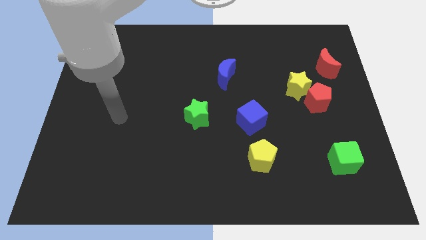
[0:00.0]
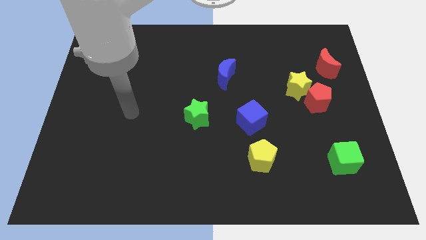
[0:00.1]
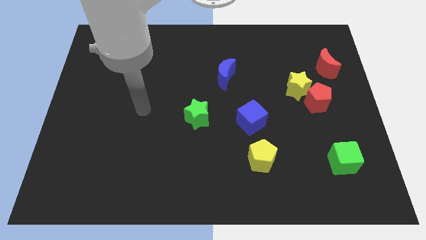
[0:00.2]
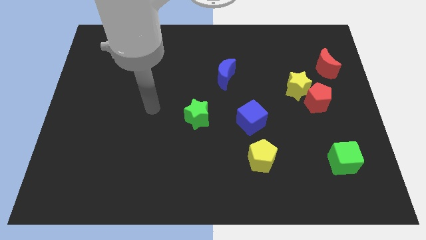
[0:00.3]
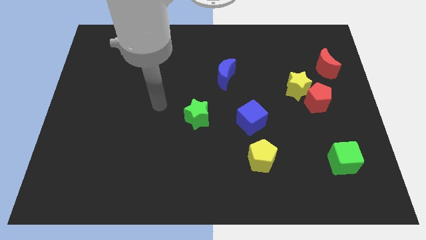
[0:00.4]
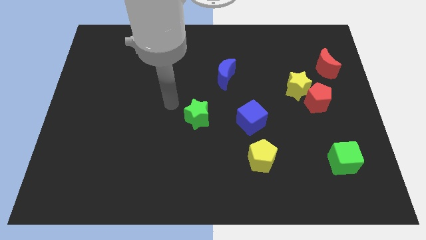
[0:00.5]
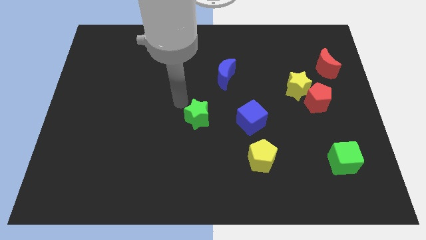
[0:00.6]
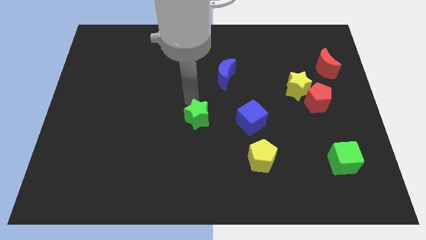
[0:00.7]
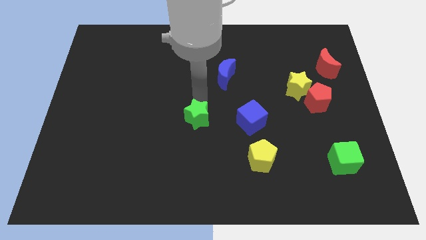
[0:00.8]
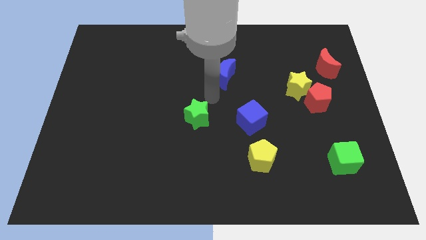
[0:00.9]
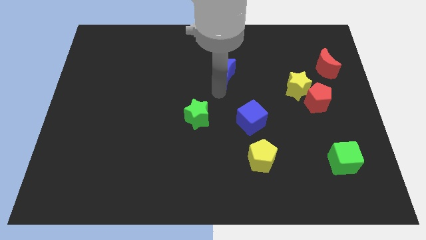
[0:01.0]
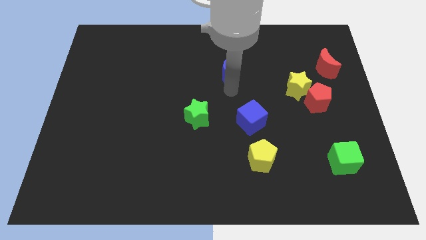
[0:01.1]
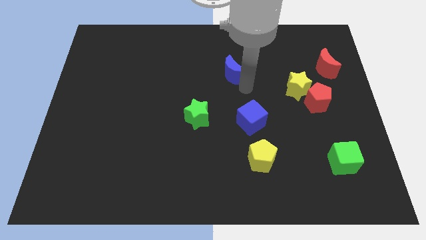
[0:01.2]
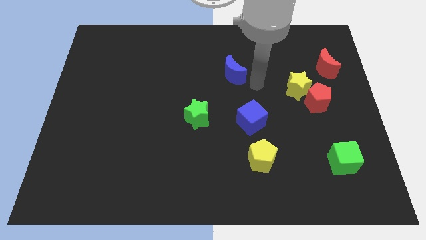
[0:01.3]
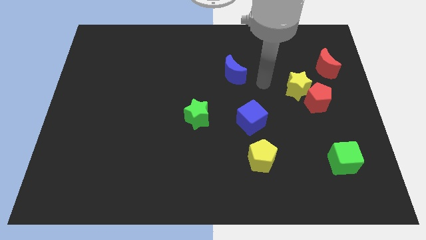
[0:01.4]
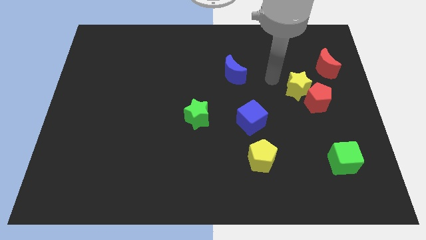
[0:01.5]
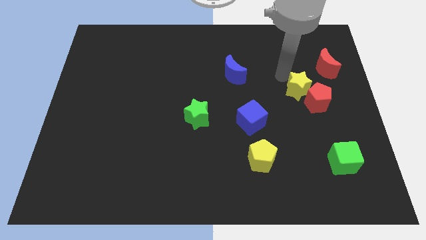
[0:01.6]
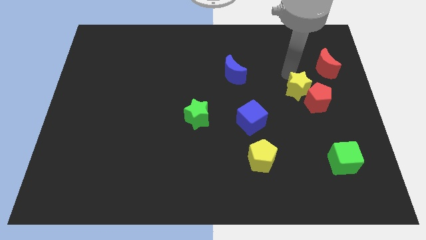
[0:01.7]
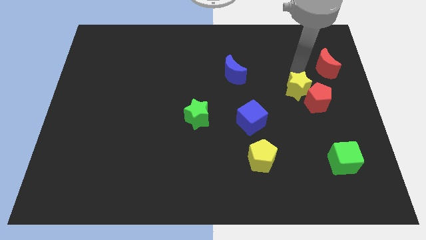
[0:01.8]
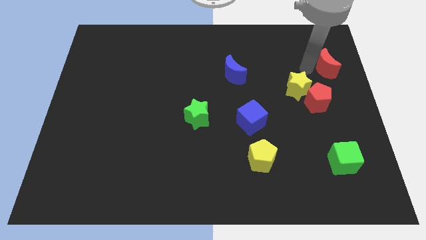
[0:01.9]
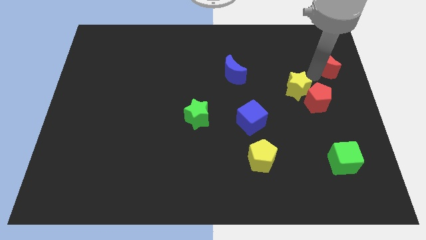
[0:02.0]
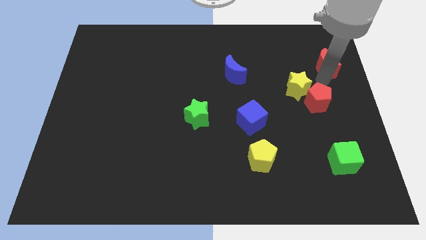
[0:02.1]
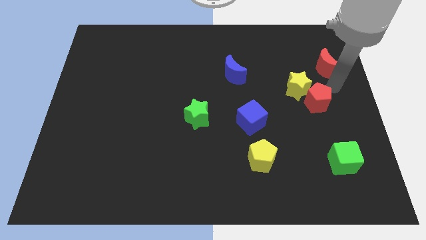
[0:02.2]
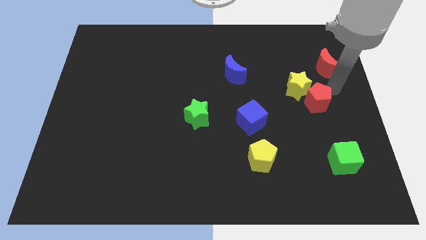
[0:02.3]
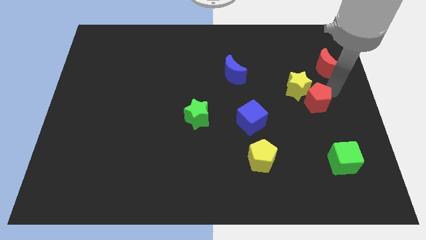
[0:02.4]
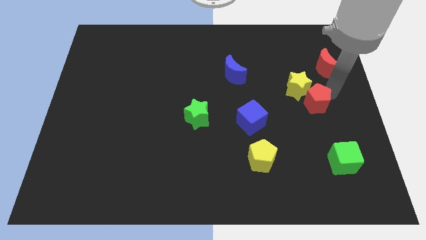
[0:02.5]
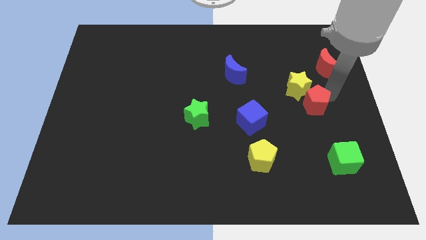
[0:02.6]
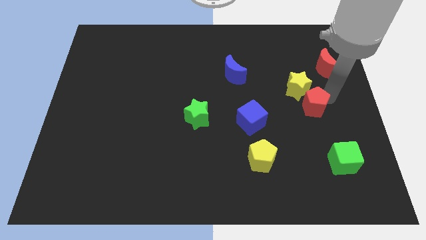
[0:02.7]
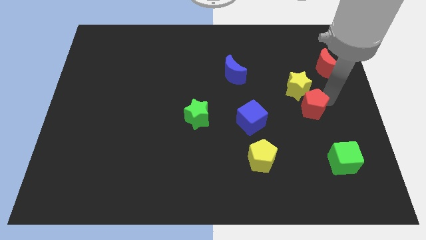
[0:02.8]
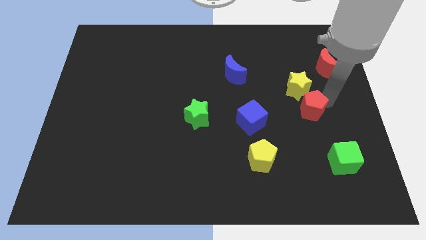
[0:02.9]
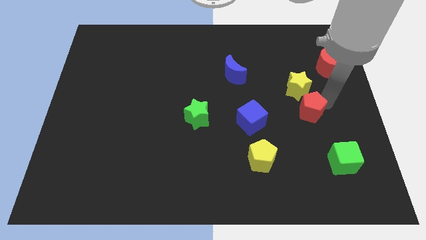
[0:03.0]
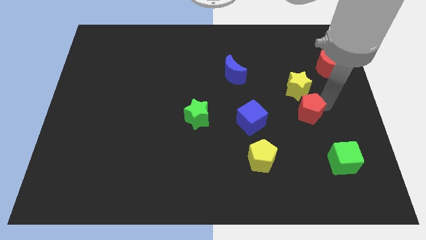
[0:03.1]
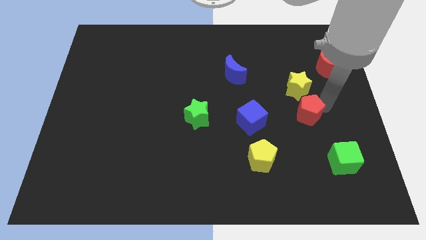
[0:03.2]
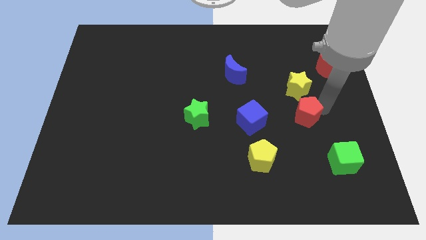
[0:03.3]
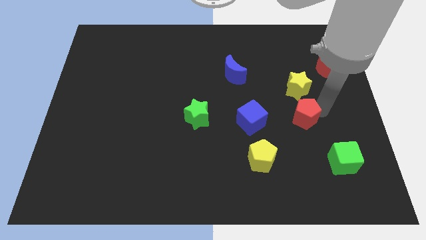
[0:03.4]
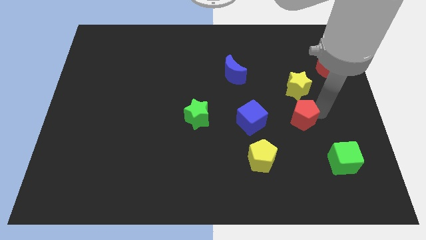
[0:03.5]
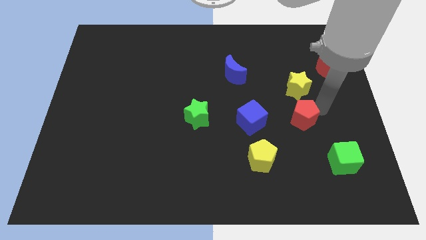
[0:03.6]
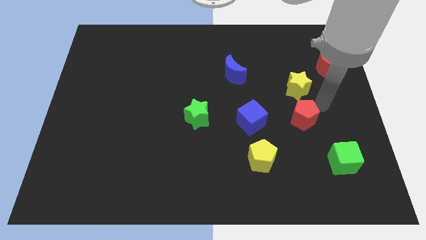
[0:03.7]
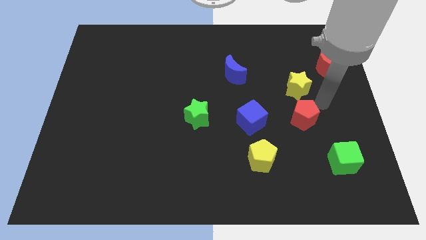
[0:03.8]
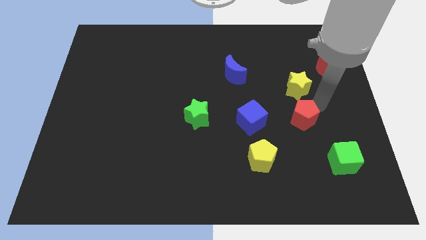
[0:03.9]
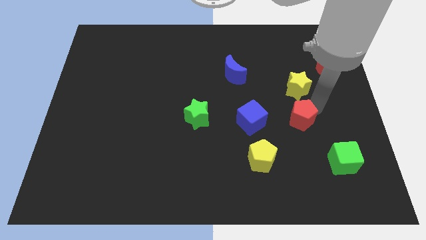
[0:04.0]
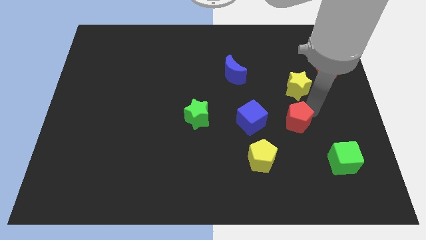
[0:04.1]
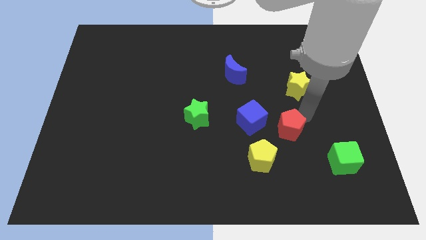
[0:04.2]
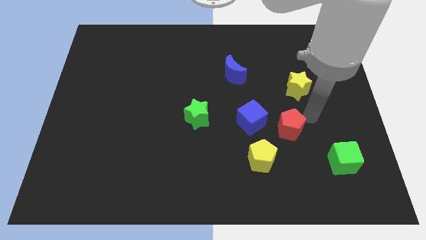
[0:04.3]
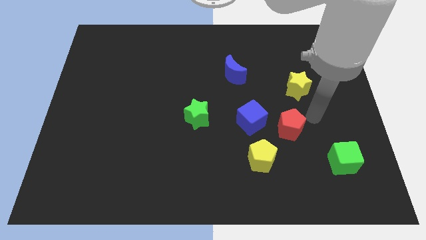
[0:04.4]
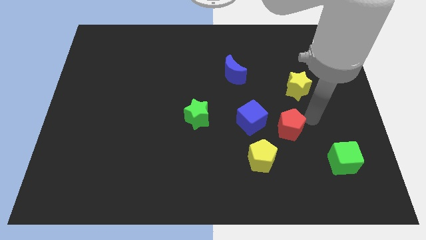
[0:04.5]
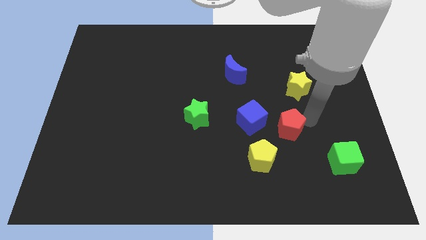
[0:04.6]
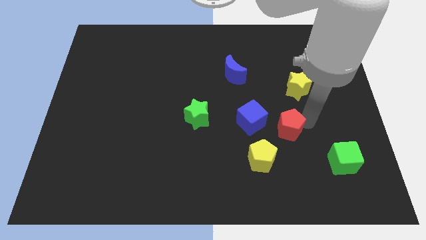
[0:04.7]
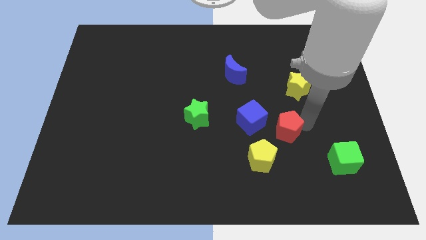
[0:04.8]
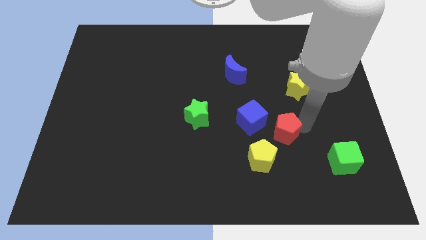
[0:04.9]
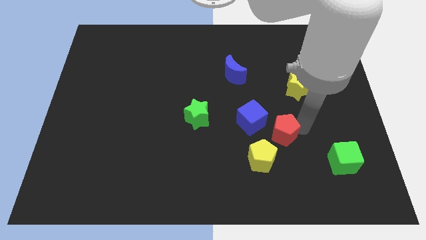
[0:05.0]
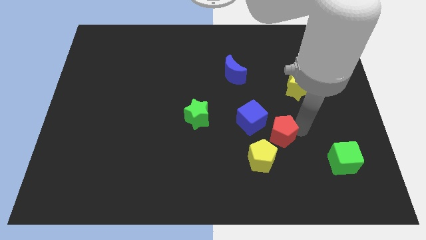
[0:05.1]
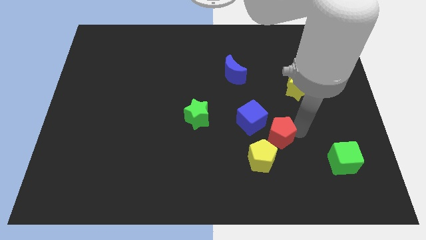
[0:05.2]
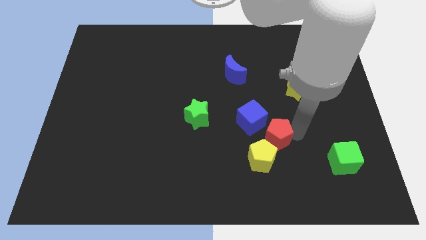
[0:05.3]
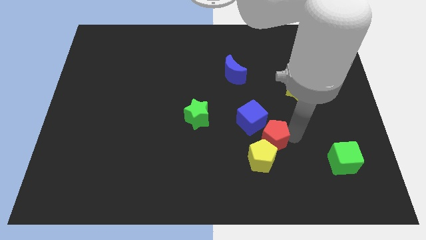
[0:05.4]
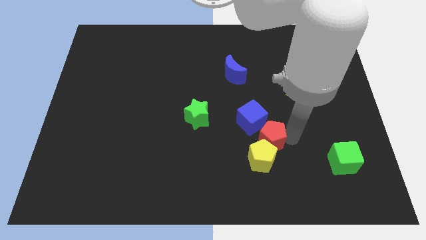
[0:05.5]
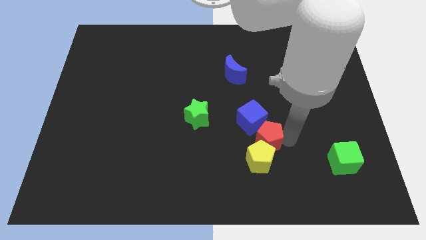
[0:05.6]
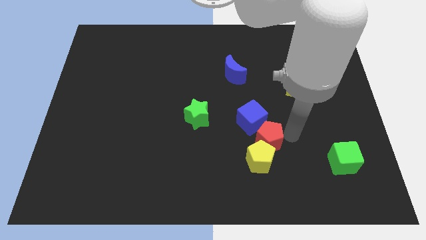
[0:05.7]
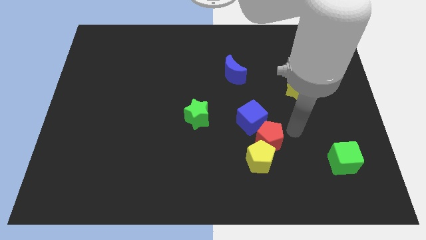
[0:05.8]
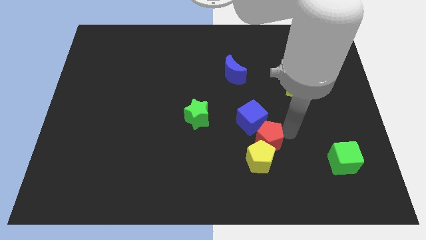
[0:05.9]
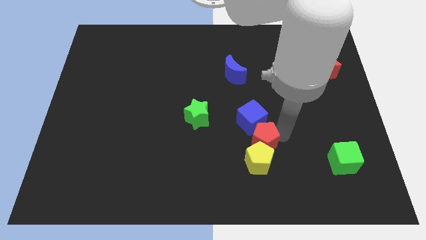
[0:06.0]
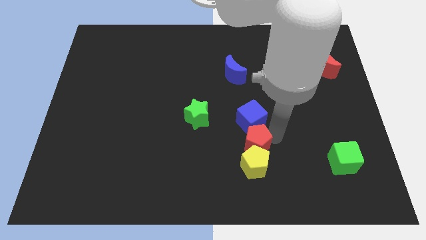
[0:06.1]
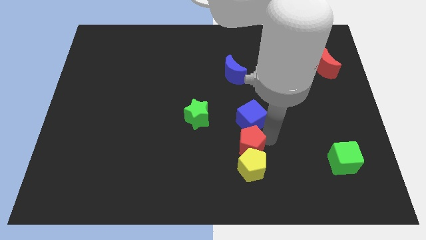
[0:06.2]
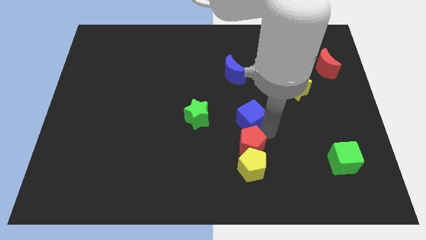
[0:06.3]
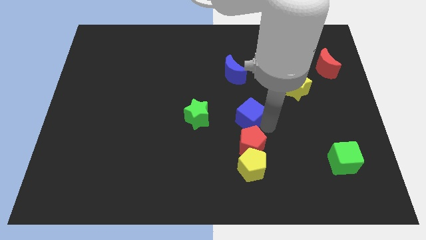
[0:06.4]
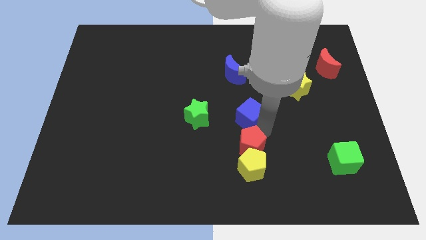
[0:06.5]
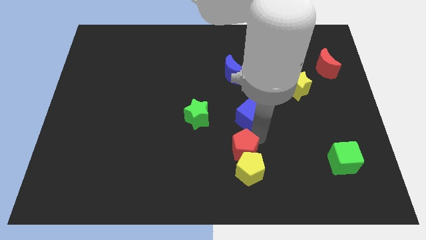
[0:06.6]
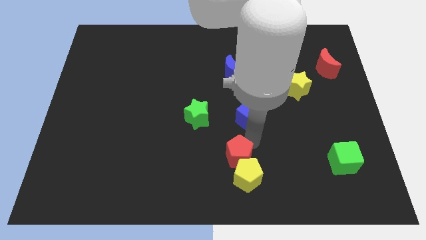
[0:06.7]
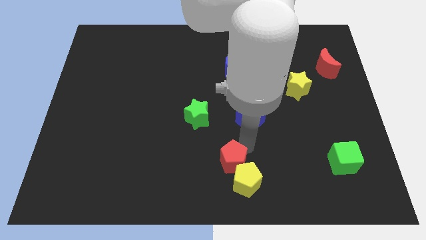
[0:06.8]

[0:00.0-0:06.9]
push the red pentagon to the bottom side

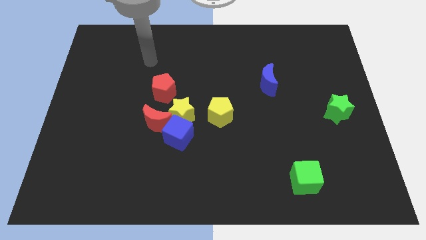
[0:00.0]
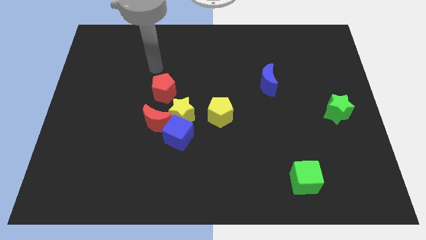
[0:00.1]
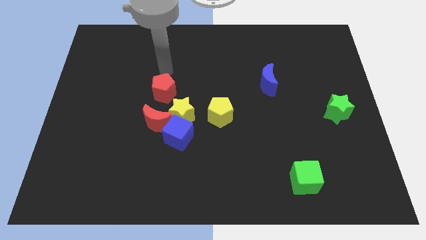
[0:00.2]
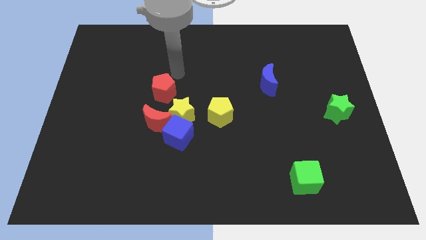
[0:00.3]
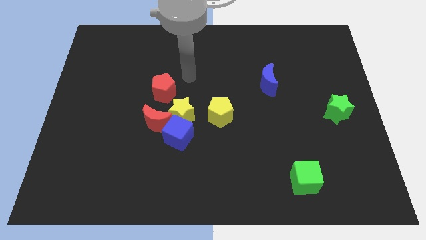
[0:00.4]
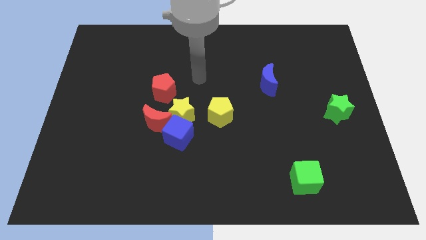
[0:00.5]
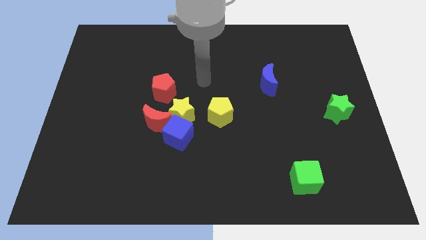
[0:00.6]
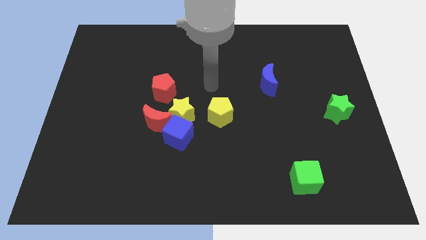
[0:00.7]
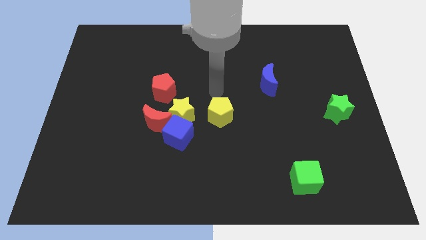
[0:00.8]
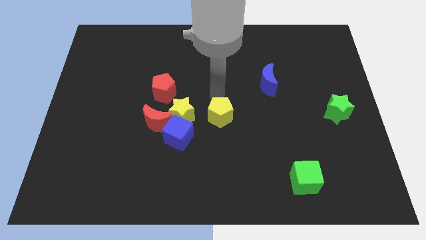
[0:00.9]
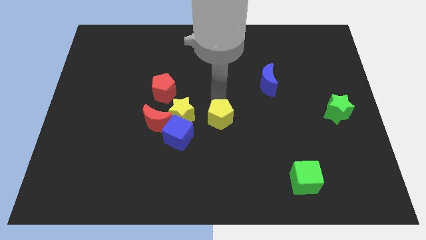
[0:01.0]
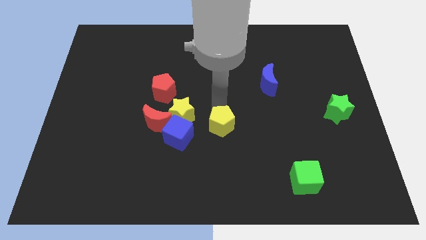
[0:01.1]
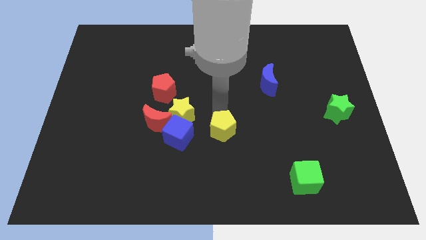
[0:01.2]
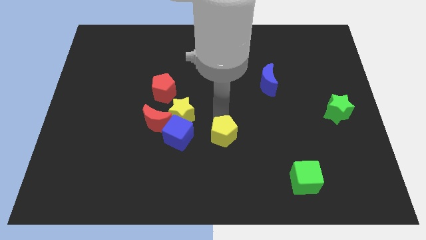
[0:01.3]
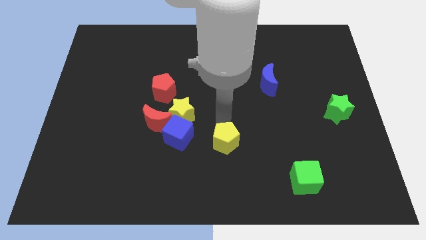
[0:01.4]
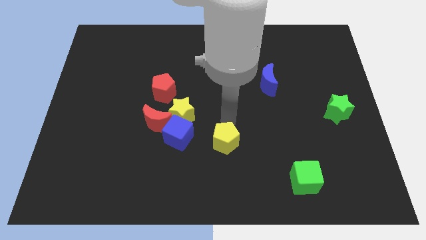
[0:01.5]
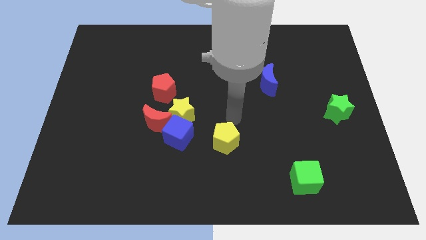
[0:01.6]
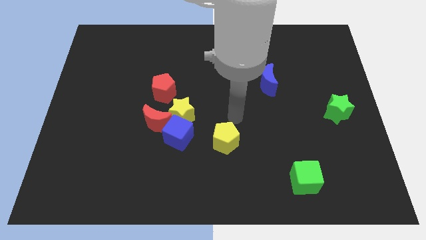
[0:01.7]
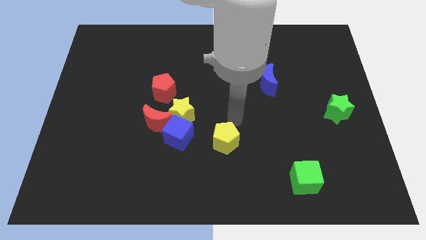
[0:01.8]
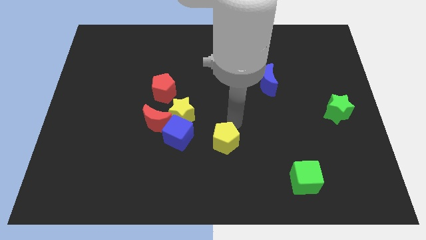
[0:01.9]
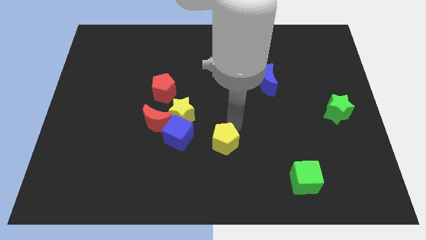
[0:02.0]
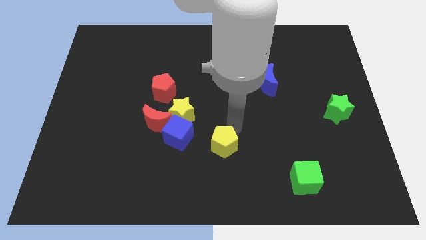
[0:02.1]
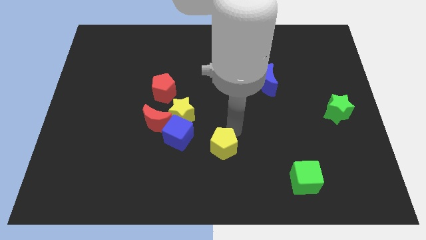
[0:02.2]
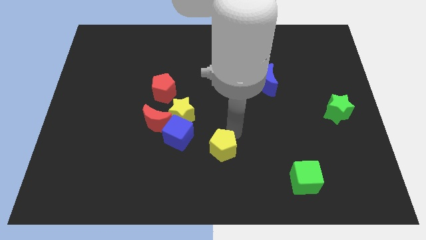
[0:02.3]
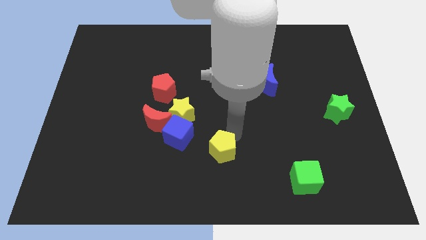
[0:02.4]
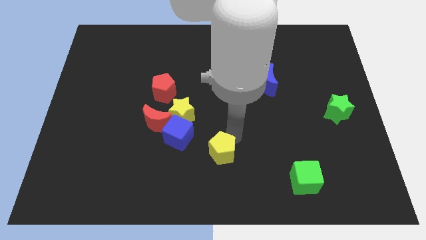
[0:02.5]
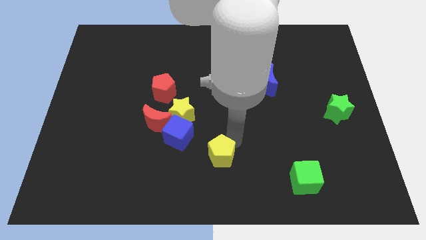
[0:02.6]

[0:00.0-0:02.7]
put the yellow pentagon to the bottom side
